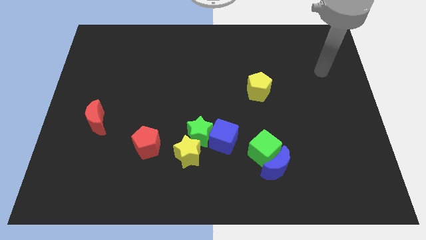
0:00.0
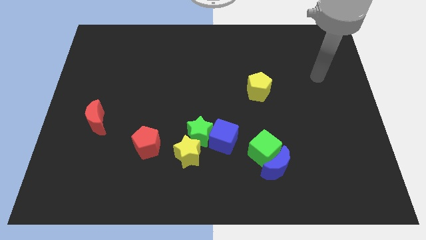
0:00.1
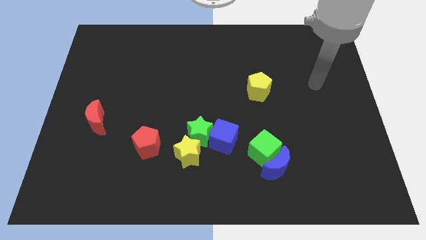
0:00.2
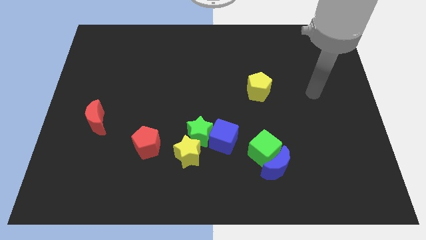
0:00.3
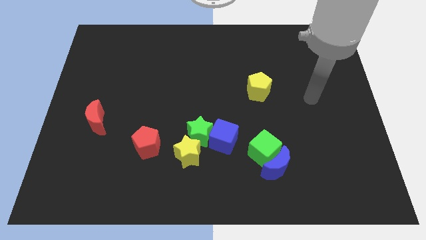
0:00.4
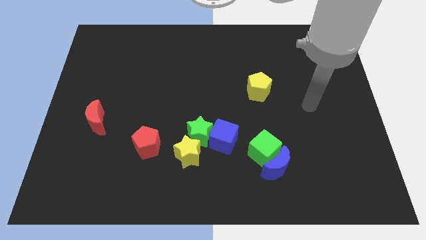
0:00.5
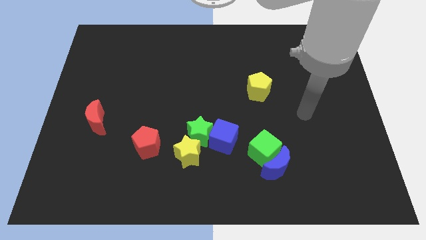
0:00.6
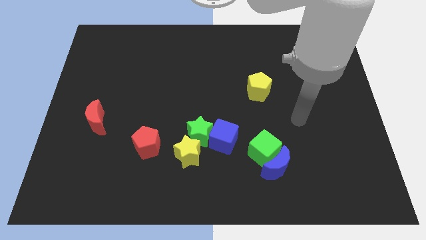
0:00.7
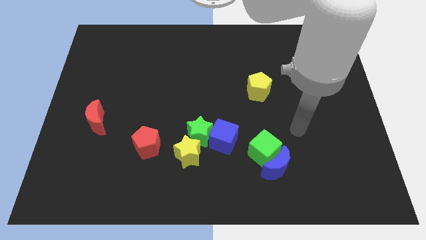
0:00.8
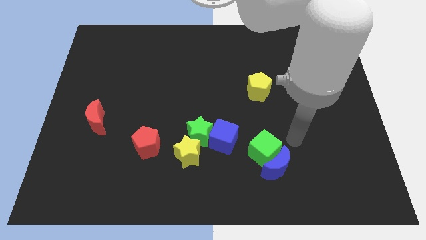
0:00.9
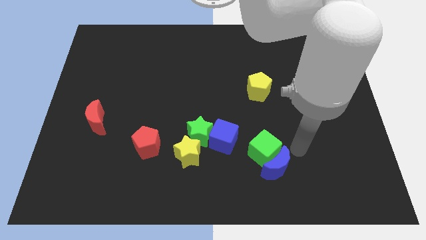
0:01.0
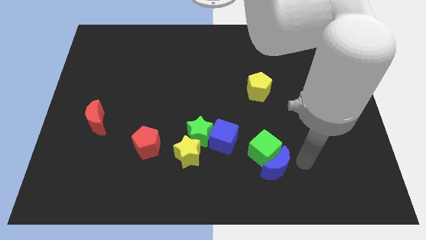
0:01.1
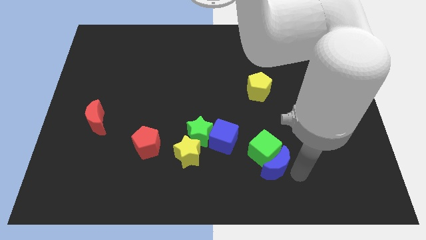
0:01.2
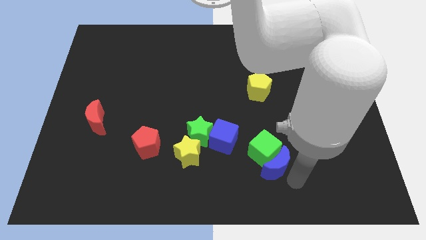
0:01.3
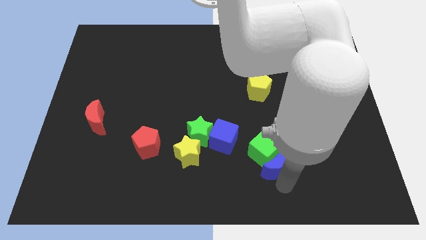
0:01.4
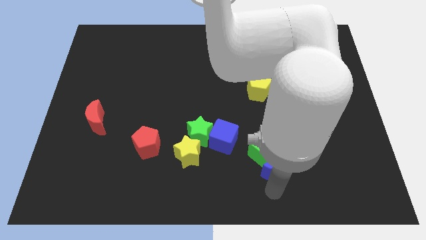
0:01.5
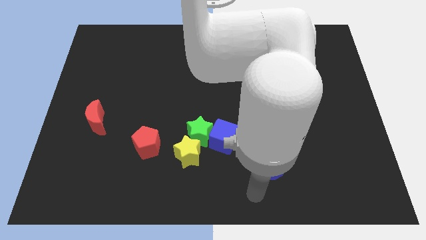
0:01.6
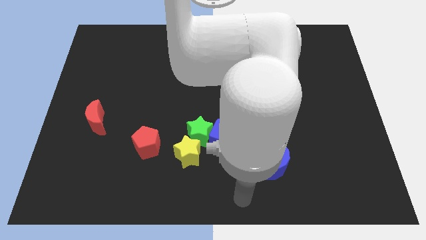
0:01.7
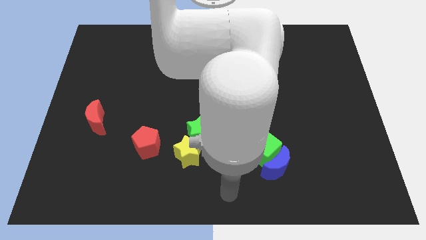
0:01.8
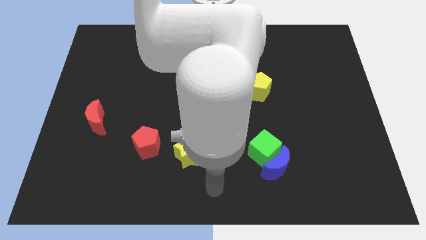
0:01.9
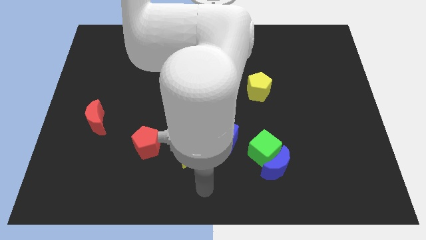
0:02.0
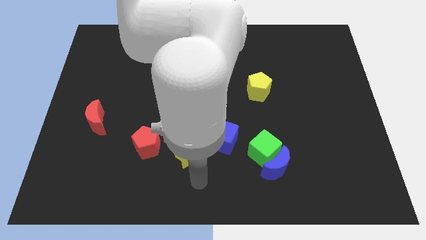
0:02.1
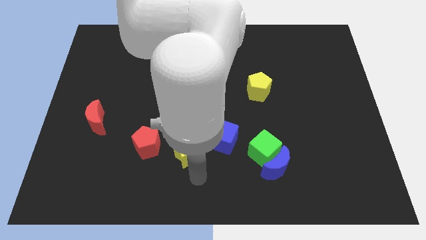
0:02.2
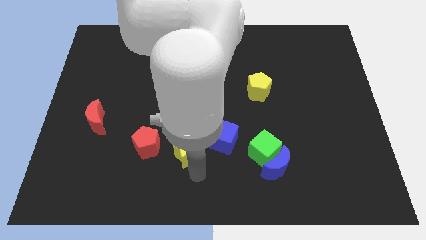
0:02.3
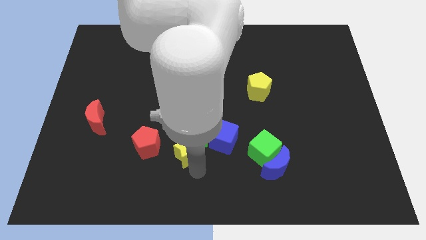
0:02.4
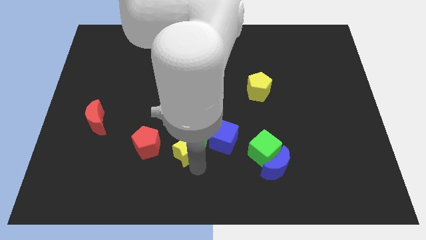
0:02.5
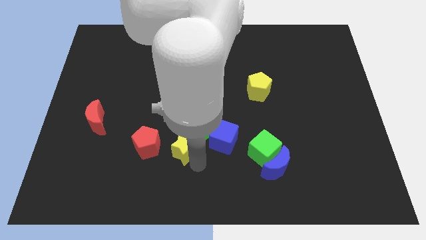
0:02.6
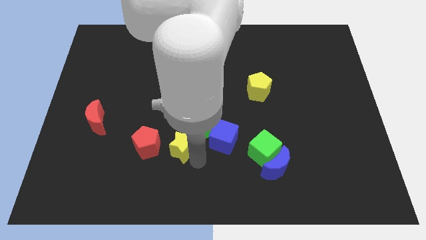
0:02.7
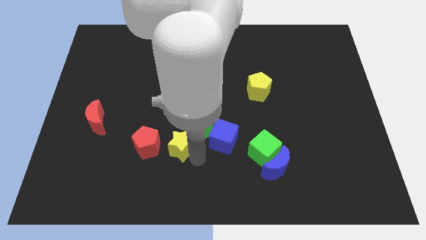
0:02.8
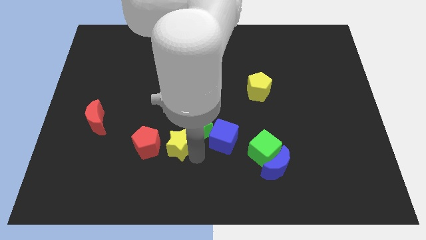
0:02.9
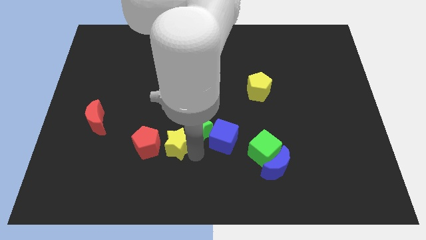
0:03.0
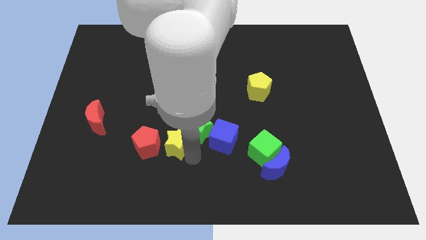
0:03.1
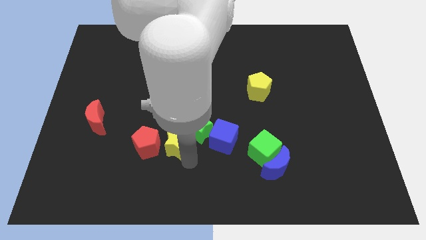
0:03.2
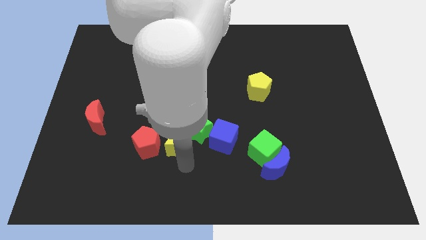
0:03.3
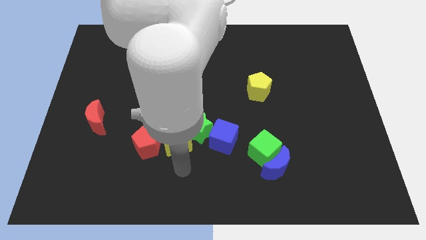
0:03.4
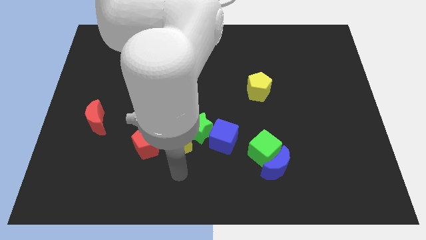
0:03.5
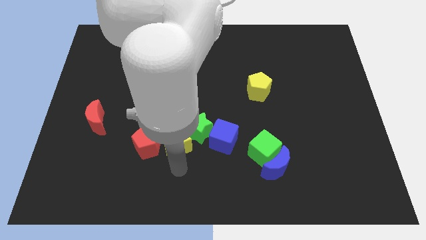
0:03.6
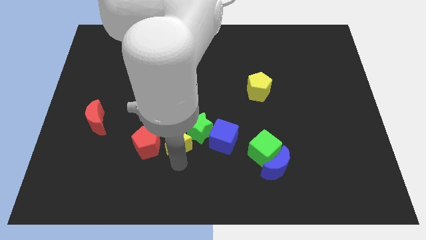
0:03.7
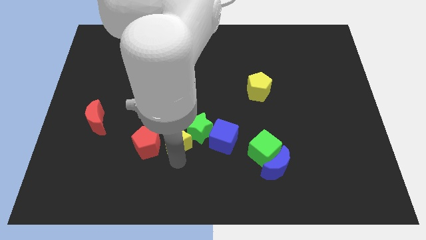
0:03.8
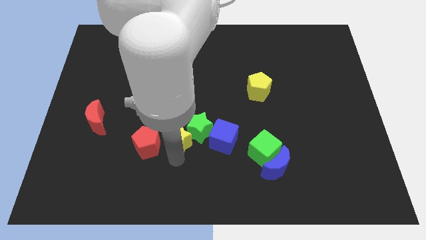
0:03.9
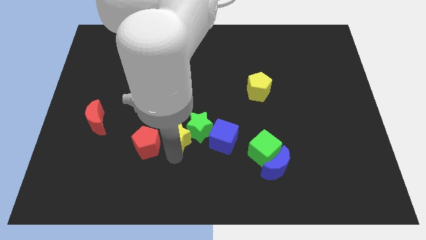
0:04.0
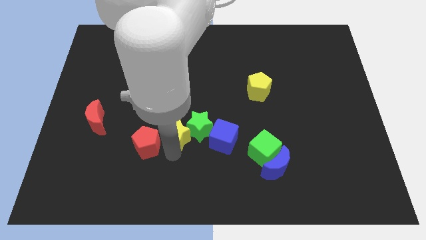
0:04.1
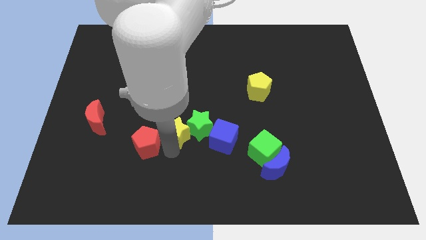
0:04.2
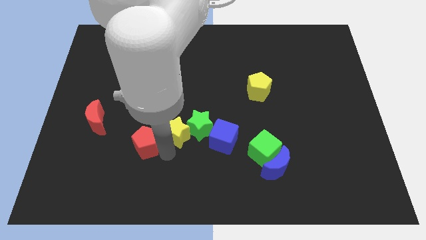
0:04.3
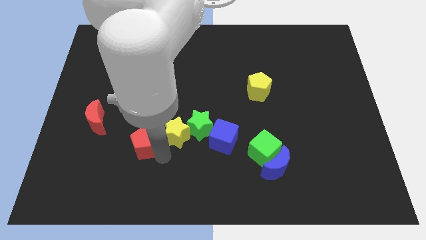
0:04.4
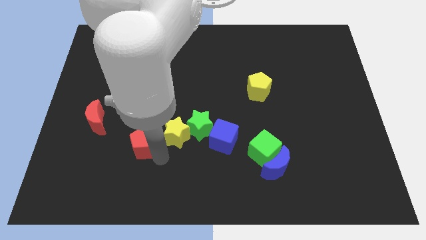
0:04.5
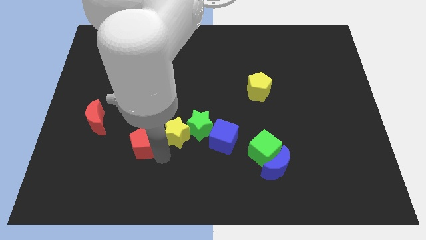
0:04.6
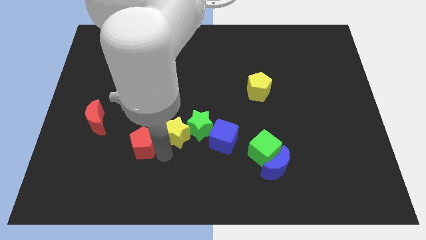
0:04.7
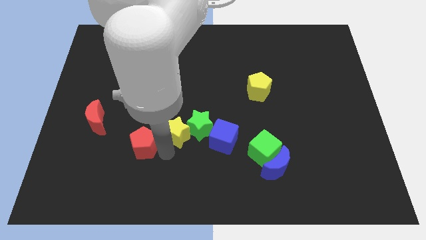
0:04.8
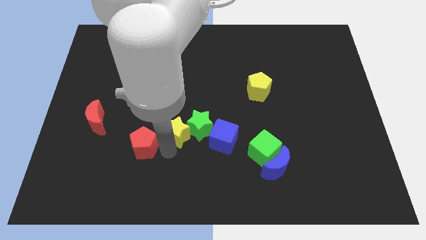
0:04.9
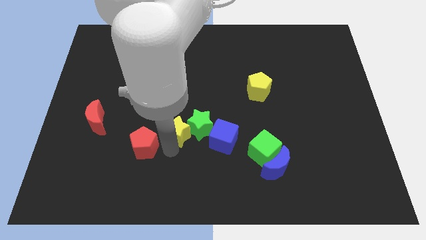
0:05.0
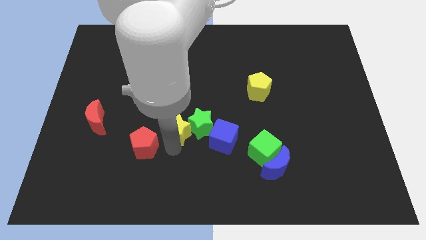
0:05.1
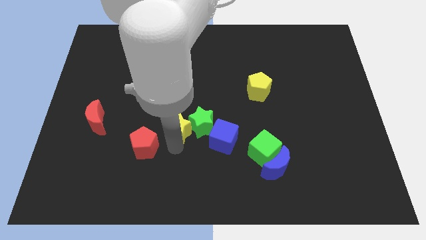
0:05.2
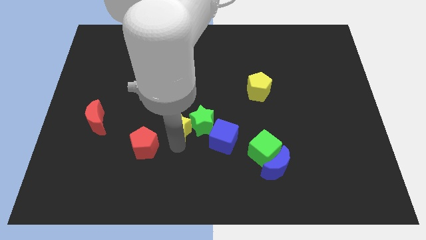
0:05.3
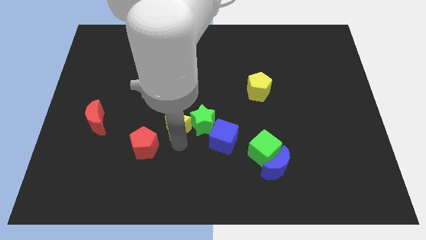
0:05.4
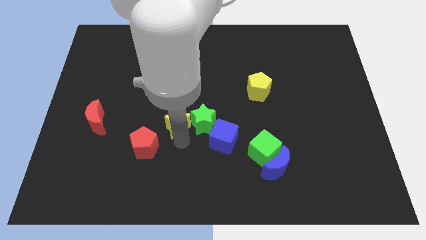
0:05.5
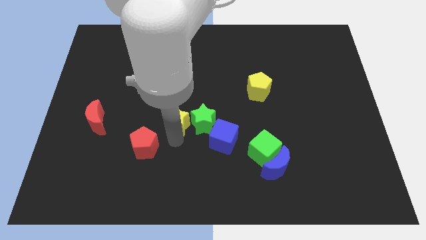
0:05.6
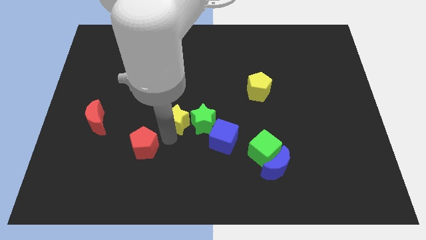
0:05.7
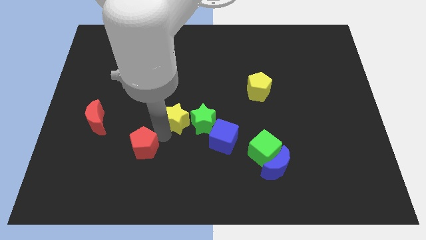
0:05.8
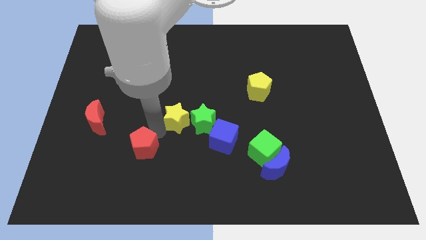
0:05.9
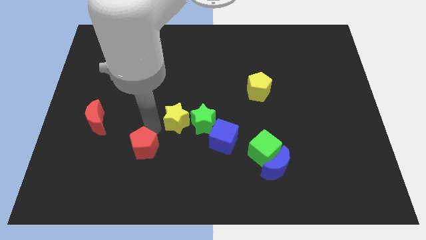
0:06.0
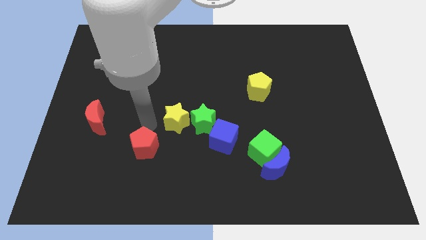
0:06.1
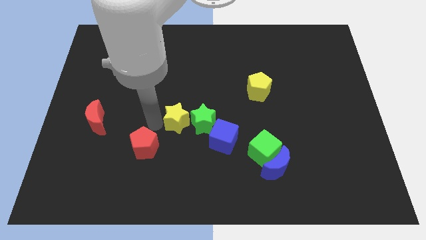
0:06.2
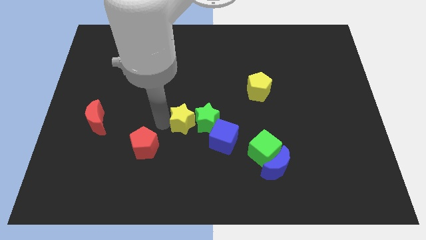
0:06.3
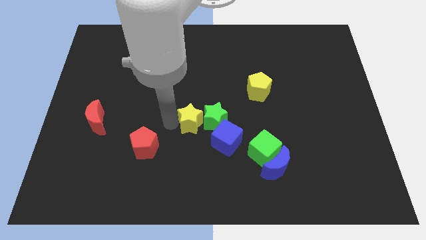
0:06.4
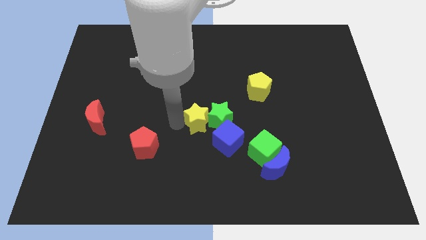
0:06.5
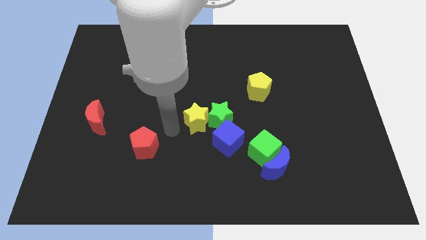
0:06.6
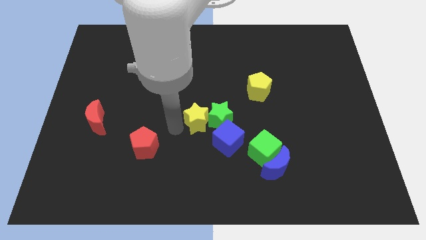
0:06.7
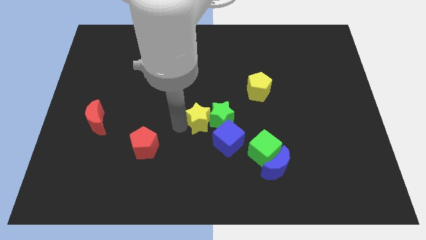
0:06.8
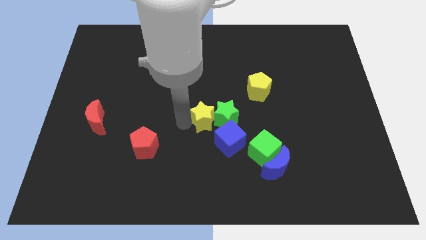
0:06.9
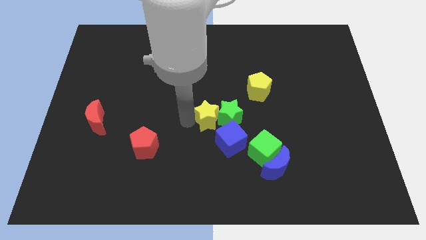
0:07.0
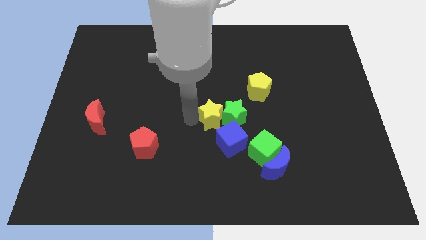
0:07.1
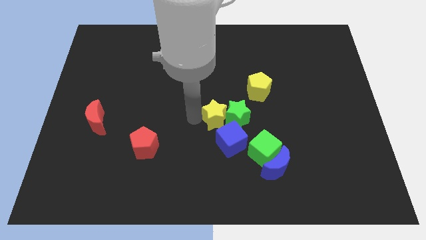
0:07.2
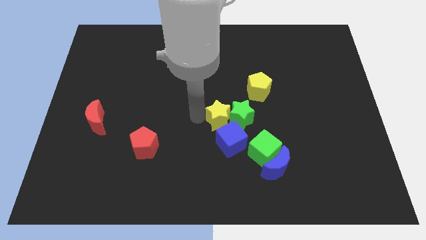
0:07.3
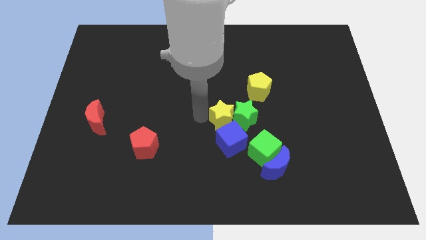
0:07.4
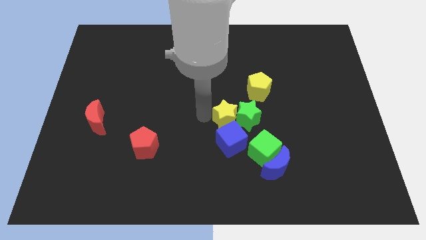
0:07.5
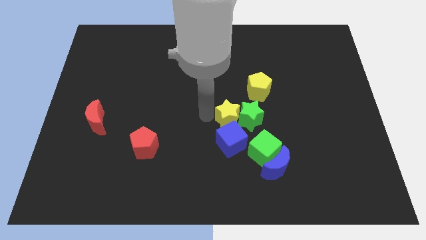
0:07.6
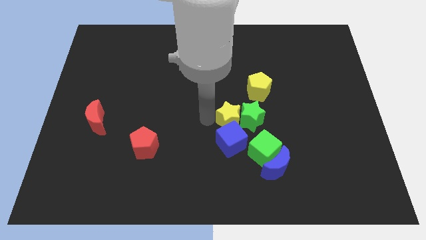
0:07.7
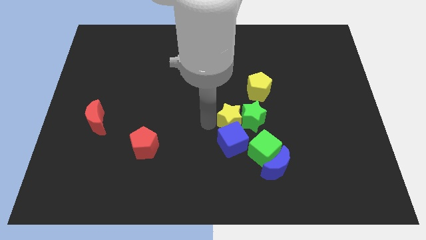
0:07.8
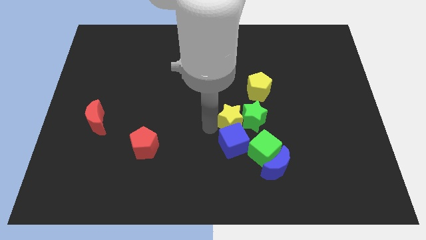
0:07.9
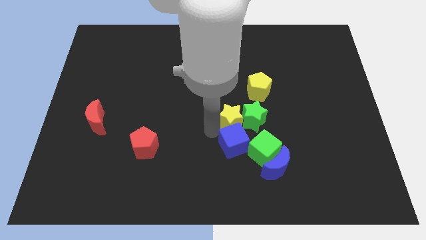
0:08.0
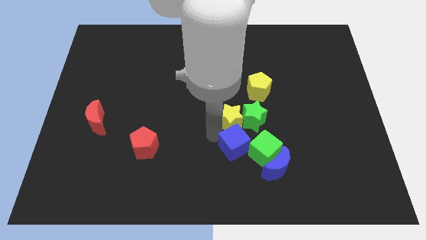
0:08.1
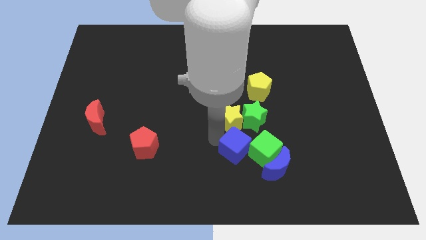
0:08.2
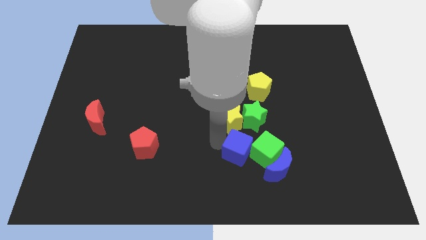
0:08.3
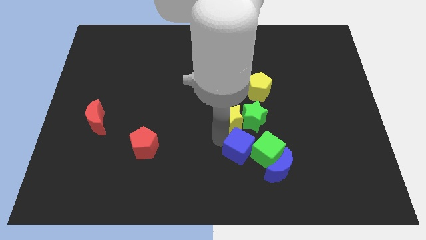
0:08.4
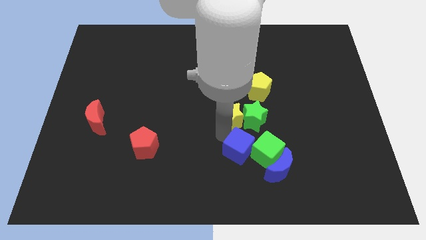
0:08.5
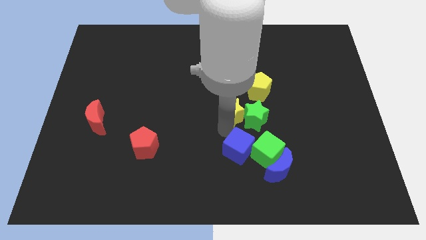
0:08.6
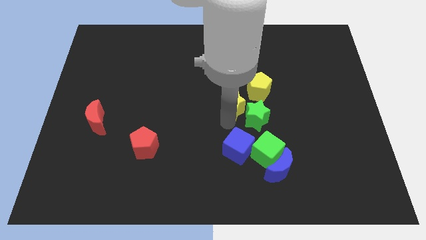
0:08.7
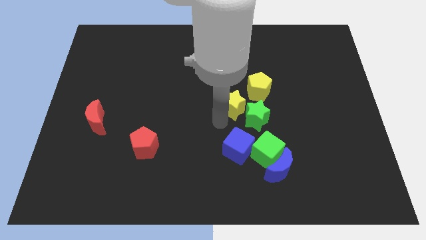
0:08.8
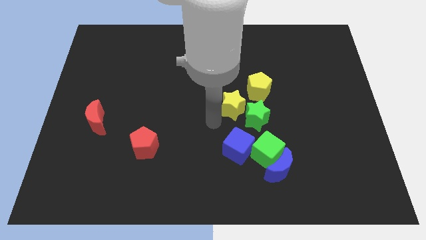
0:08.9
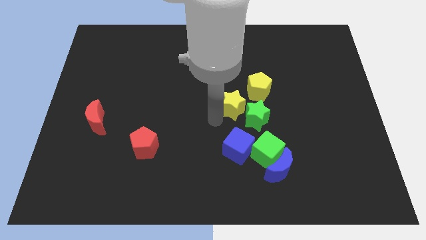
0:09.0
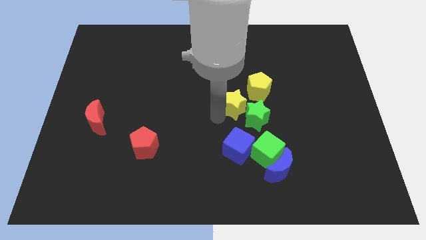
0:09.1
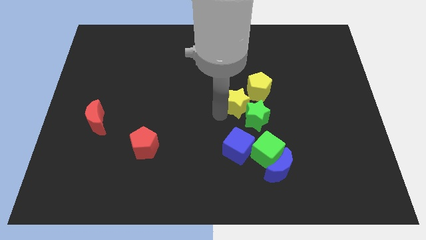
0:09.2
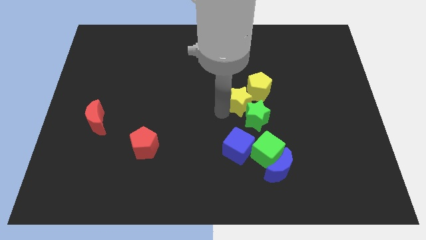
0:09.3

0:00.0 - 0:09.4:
move the yellow star close to the yellow pentagon
